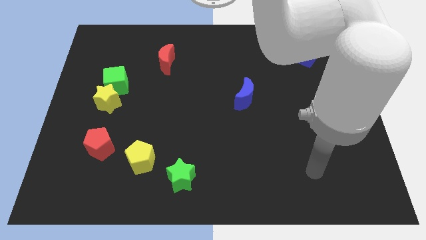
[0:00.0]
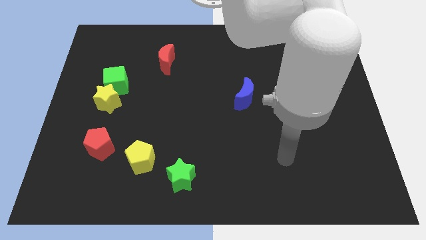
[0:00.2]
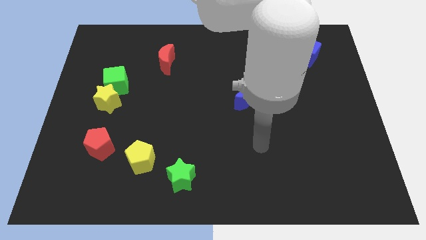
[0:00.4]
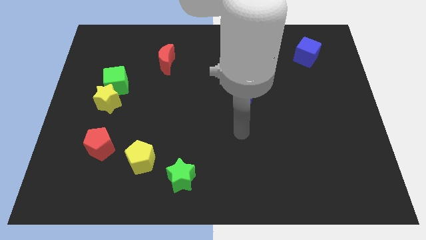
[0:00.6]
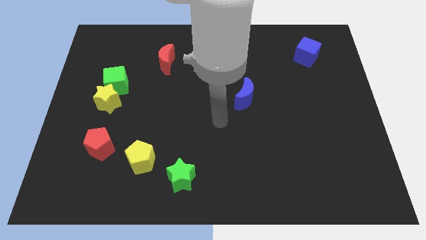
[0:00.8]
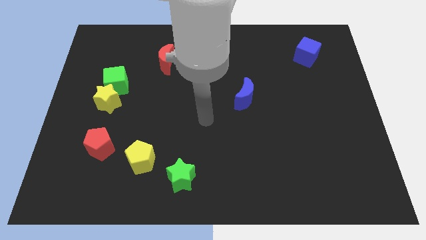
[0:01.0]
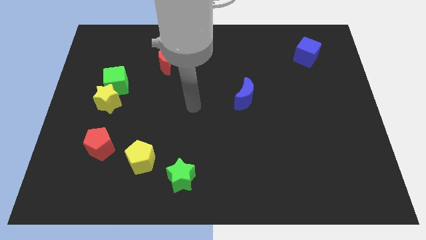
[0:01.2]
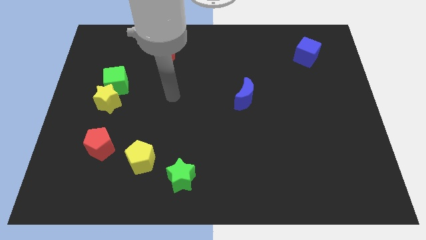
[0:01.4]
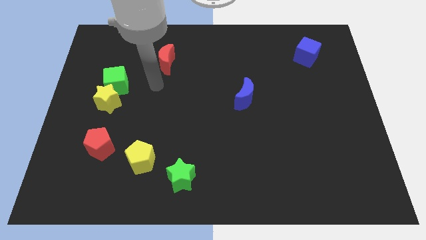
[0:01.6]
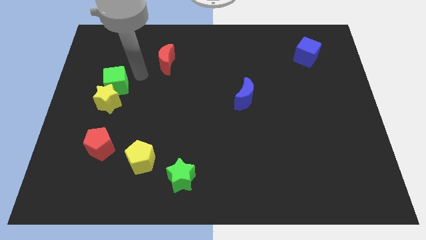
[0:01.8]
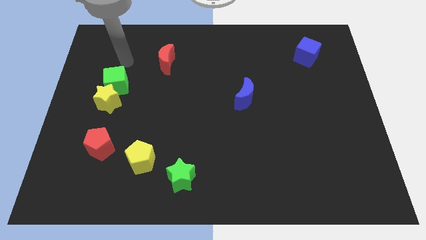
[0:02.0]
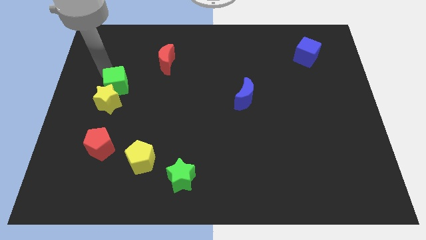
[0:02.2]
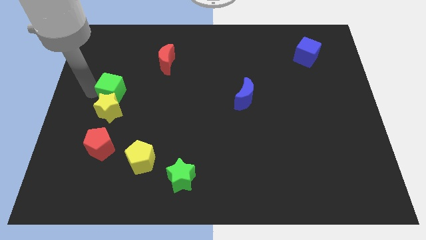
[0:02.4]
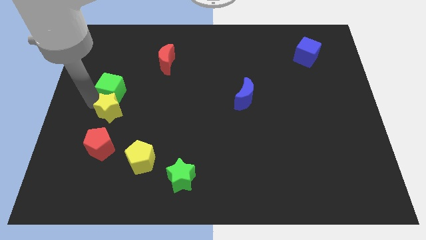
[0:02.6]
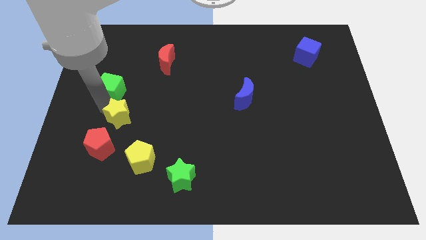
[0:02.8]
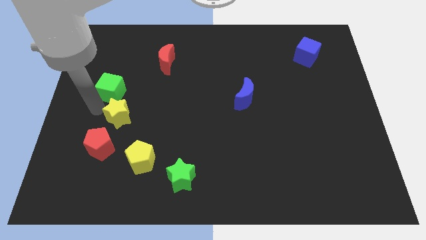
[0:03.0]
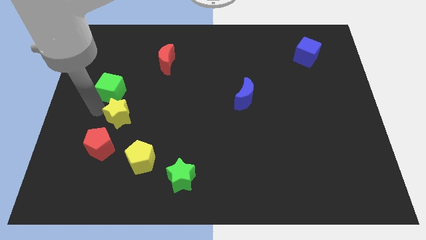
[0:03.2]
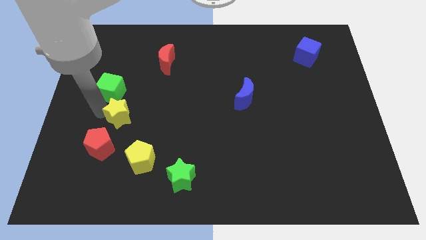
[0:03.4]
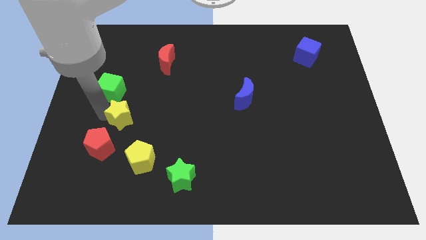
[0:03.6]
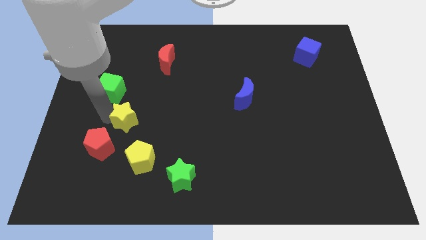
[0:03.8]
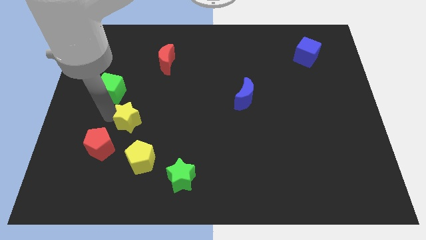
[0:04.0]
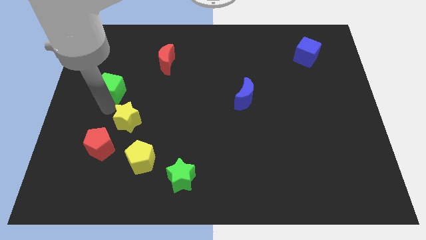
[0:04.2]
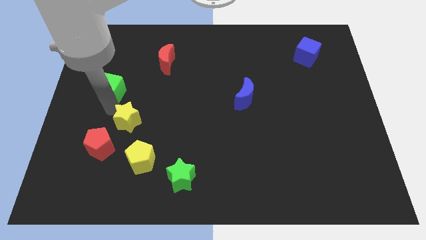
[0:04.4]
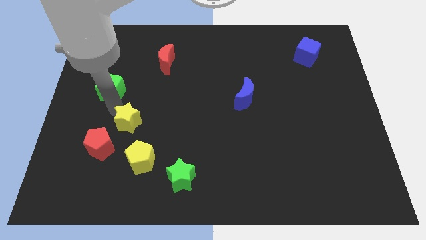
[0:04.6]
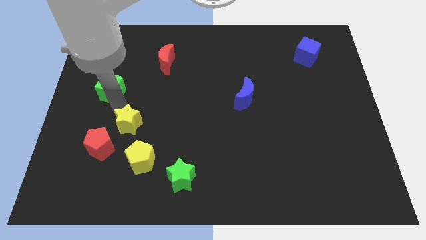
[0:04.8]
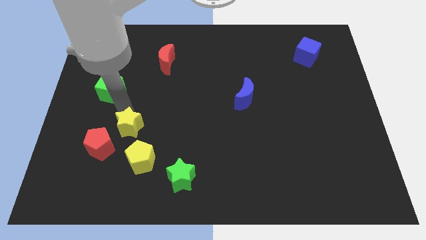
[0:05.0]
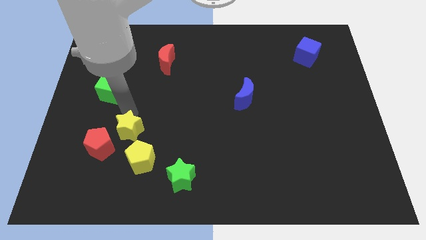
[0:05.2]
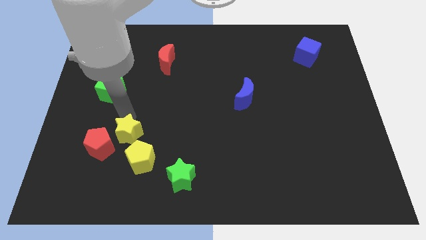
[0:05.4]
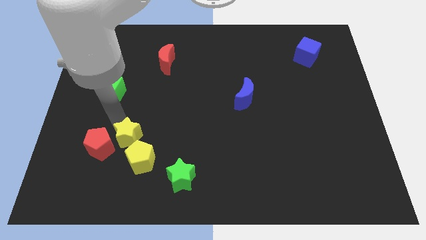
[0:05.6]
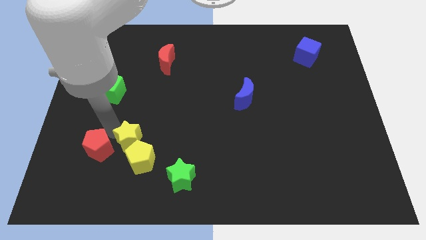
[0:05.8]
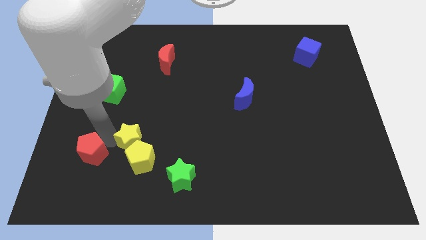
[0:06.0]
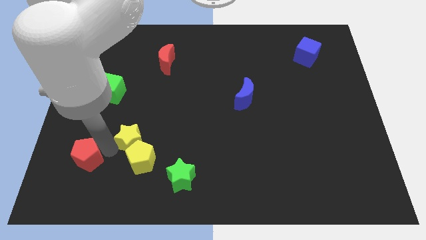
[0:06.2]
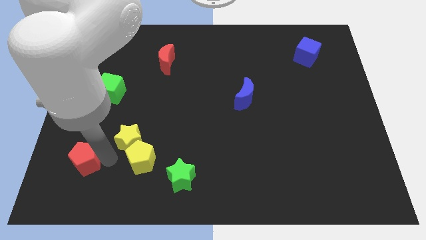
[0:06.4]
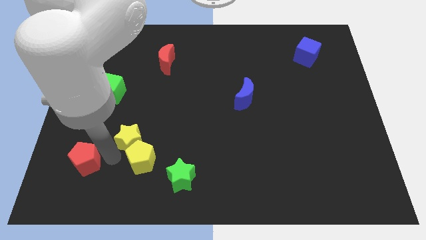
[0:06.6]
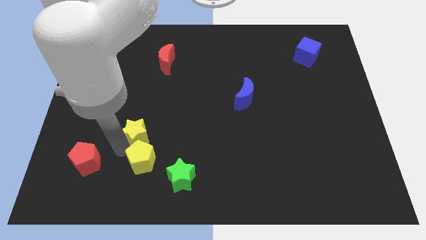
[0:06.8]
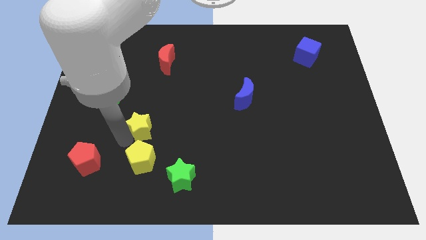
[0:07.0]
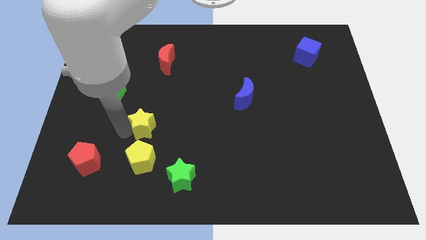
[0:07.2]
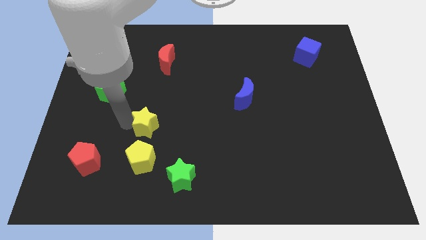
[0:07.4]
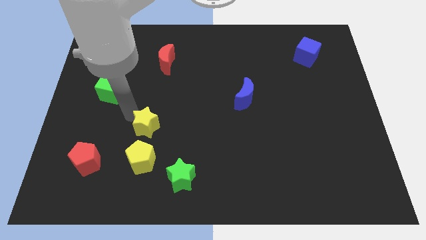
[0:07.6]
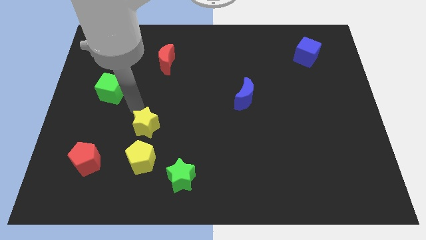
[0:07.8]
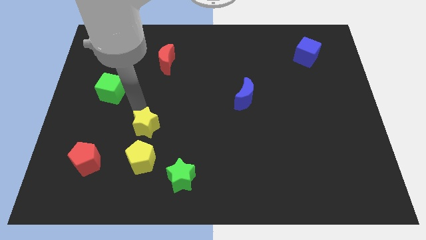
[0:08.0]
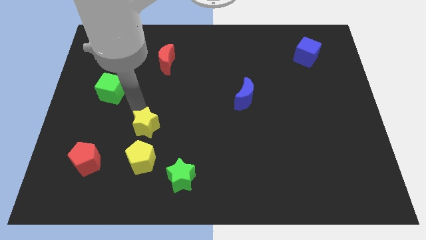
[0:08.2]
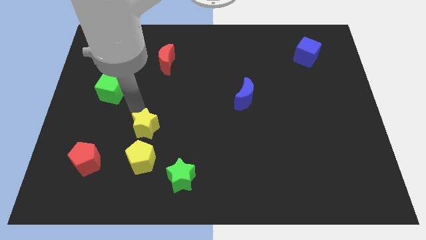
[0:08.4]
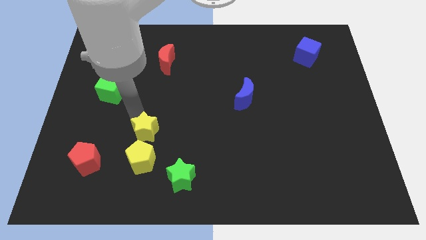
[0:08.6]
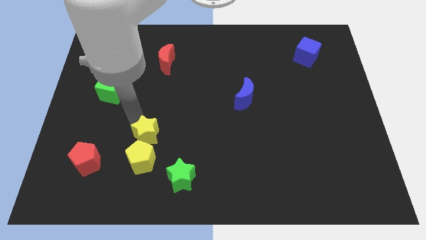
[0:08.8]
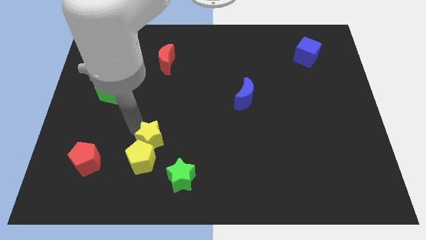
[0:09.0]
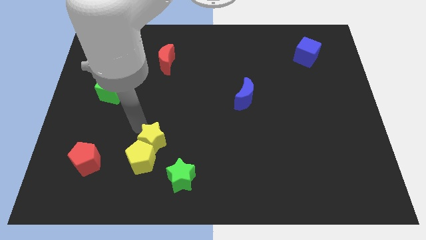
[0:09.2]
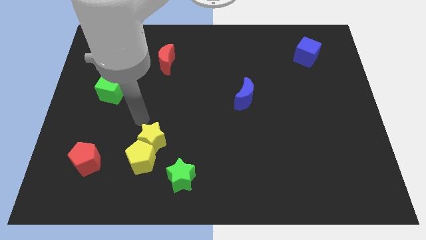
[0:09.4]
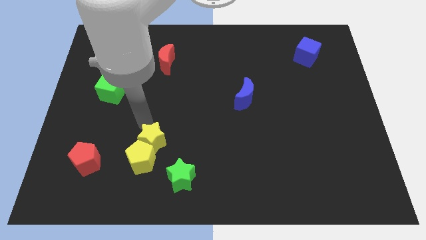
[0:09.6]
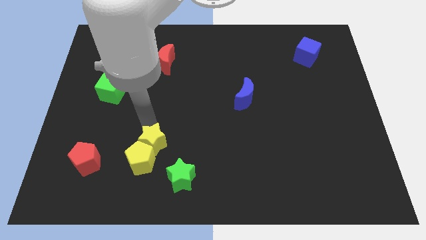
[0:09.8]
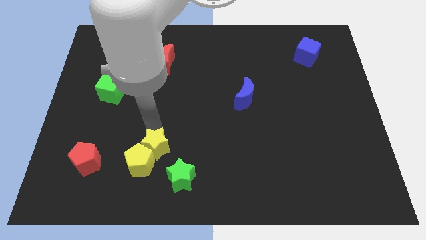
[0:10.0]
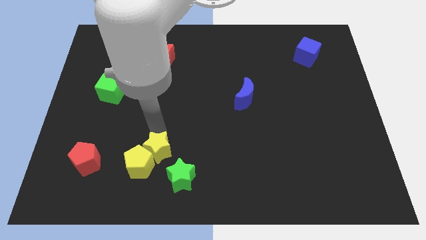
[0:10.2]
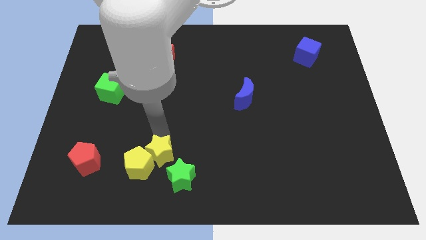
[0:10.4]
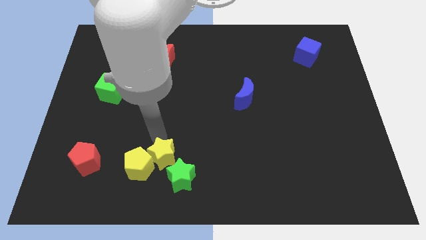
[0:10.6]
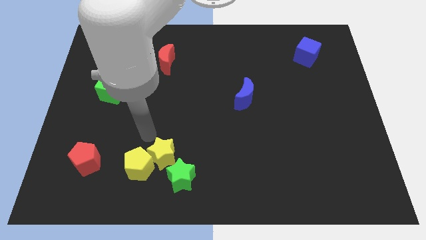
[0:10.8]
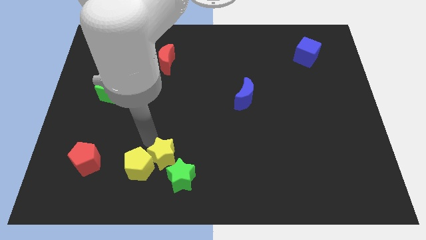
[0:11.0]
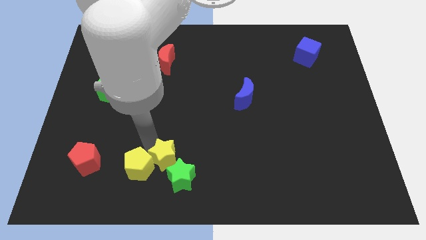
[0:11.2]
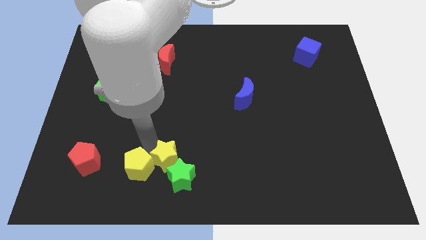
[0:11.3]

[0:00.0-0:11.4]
push the yellow star to the green star
